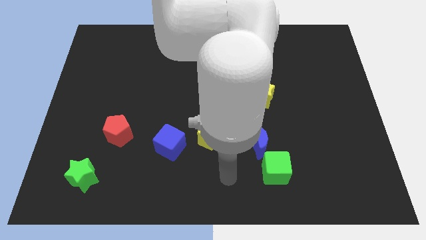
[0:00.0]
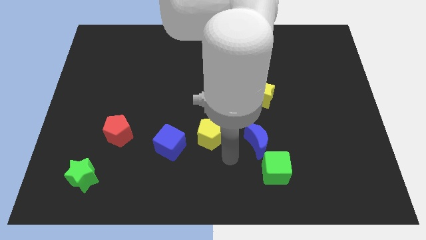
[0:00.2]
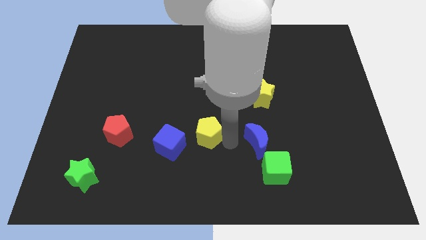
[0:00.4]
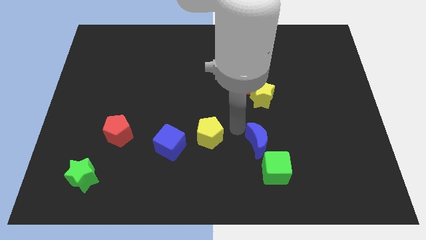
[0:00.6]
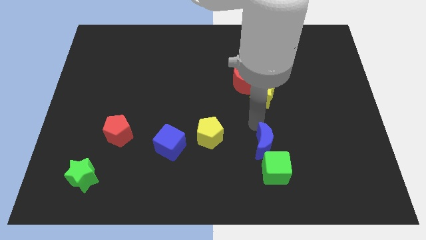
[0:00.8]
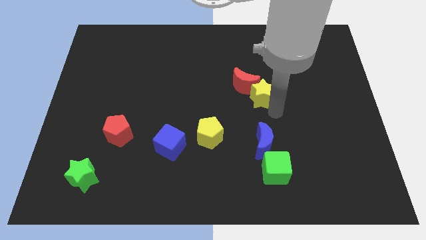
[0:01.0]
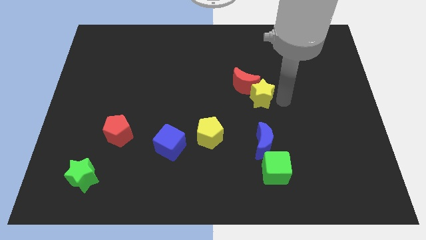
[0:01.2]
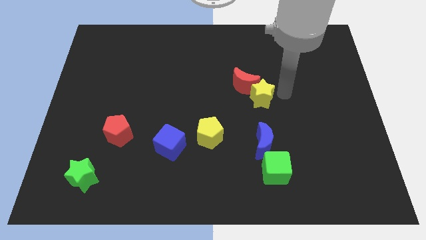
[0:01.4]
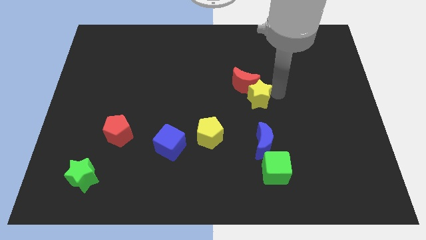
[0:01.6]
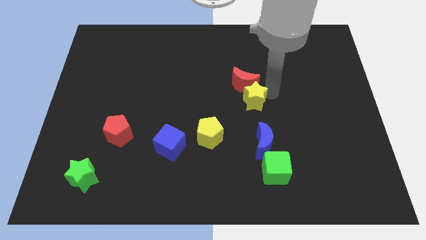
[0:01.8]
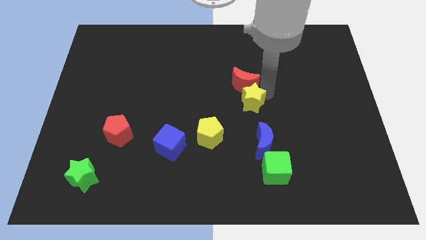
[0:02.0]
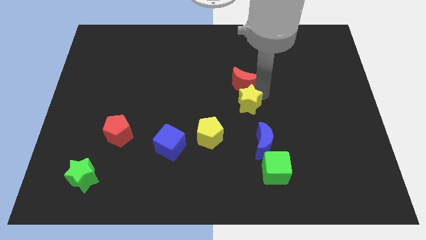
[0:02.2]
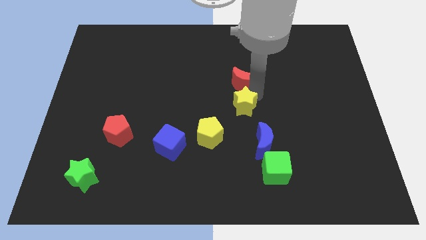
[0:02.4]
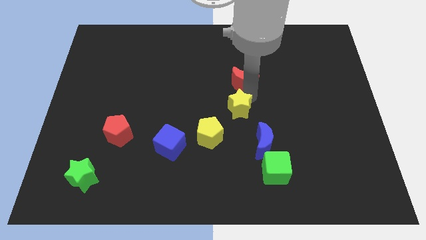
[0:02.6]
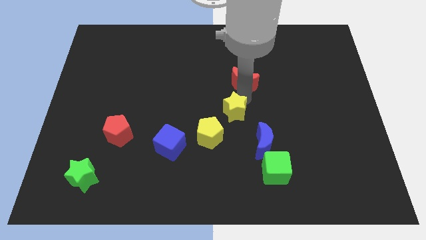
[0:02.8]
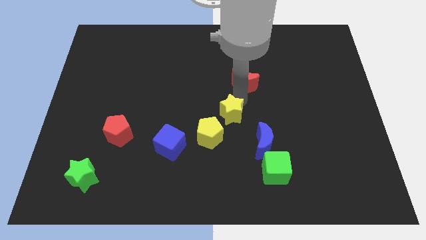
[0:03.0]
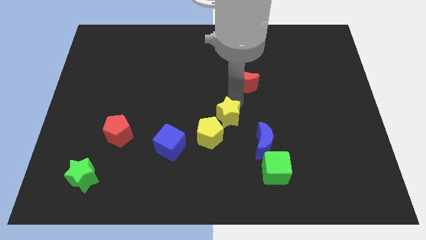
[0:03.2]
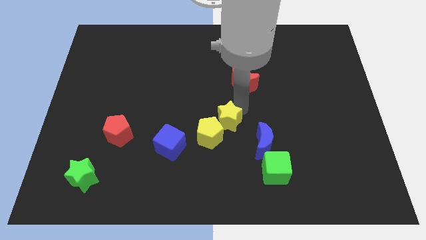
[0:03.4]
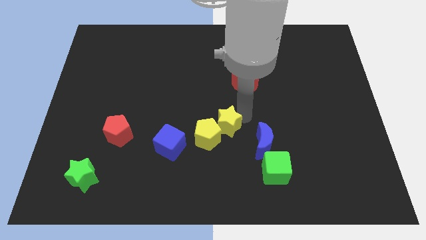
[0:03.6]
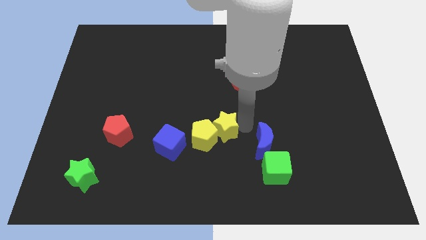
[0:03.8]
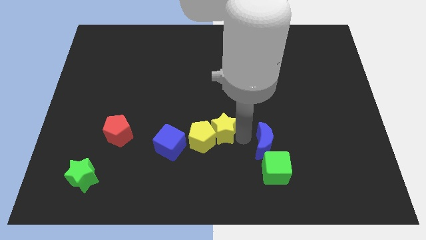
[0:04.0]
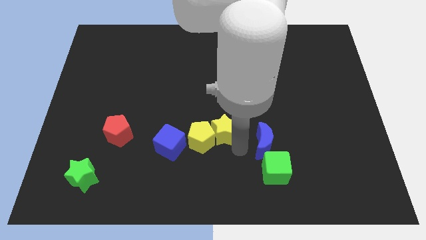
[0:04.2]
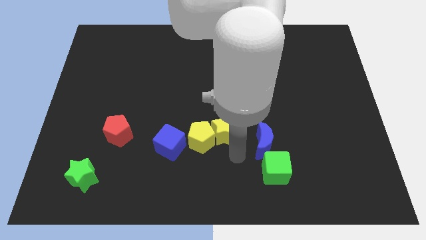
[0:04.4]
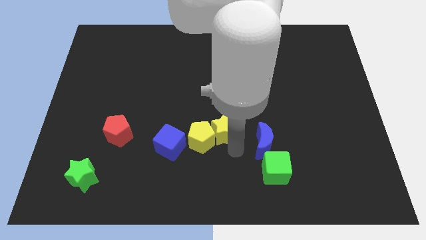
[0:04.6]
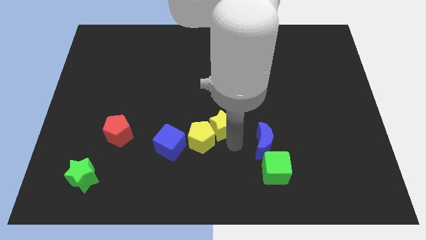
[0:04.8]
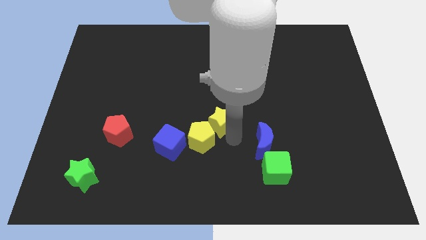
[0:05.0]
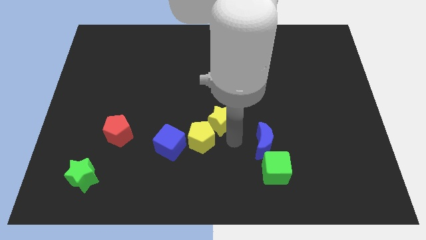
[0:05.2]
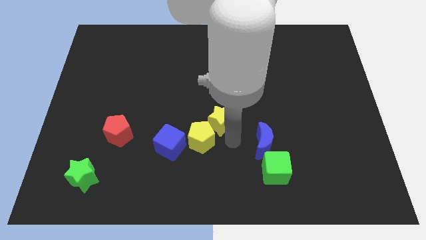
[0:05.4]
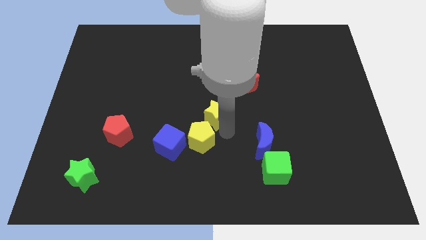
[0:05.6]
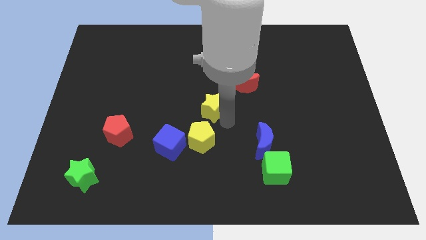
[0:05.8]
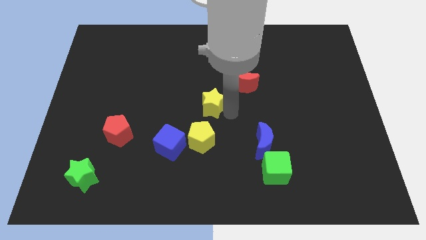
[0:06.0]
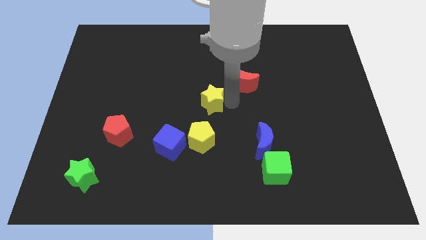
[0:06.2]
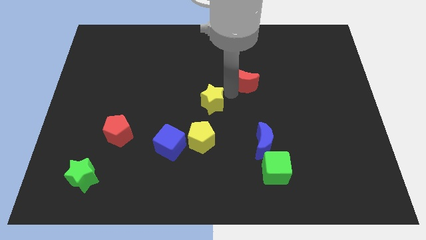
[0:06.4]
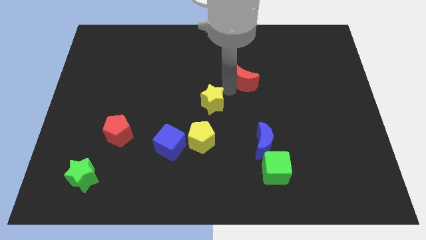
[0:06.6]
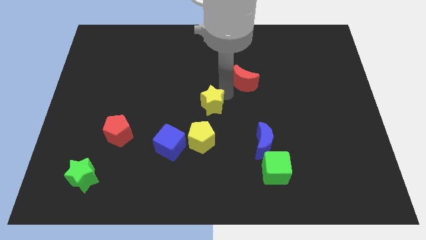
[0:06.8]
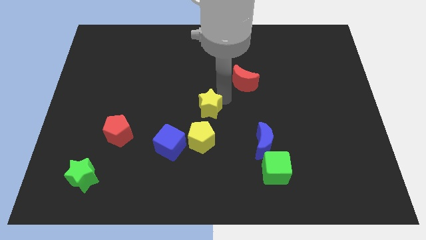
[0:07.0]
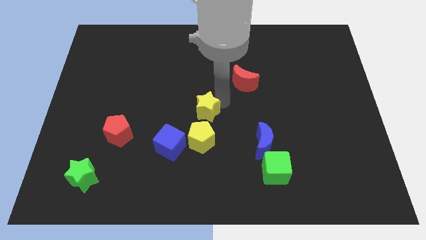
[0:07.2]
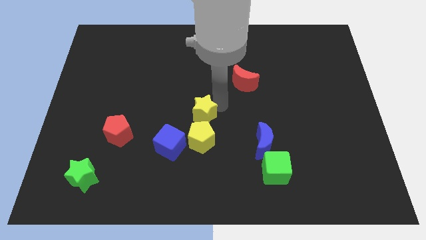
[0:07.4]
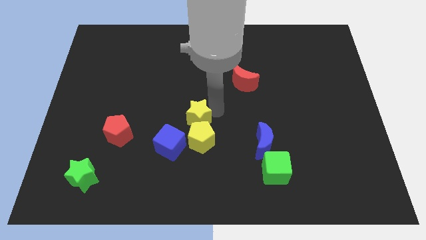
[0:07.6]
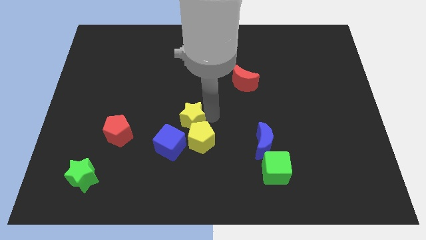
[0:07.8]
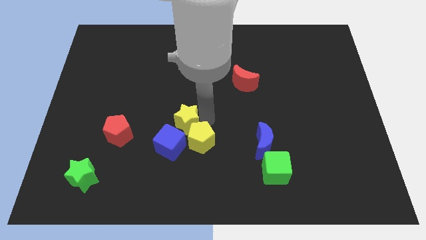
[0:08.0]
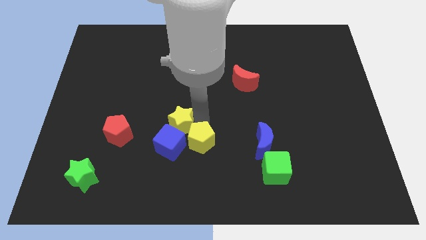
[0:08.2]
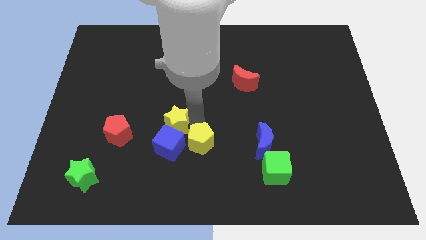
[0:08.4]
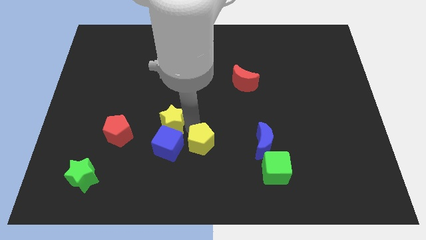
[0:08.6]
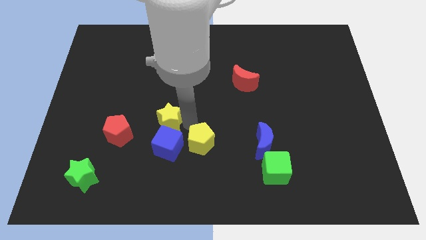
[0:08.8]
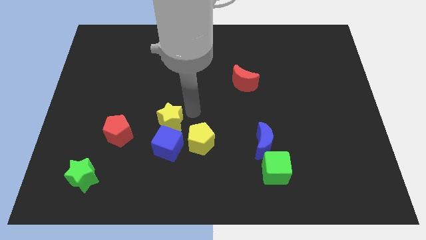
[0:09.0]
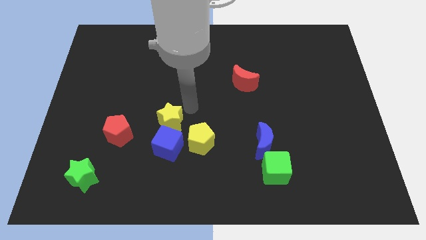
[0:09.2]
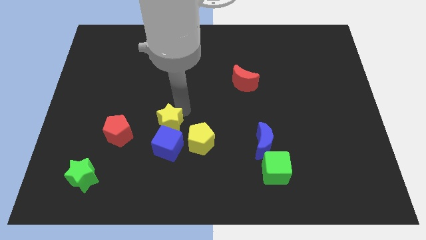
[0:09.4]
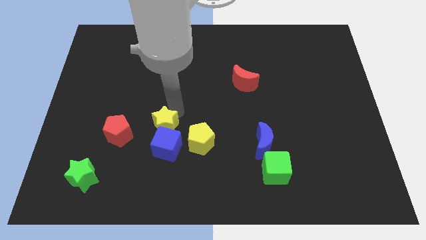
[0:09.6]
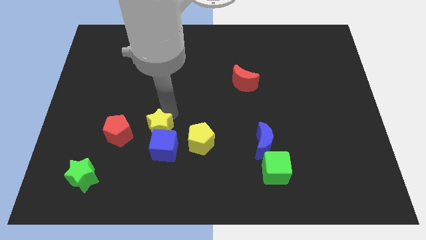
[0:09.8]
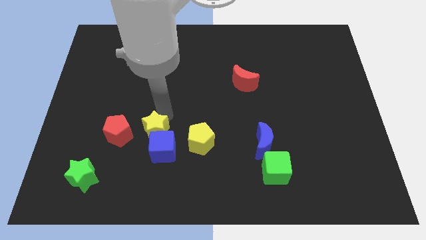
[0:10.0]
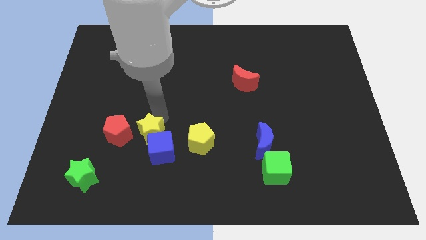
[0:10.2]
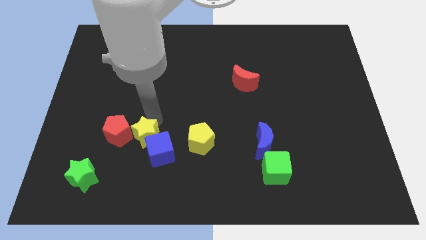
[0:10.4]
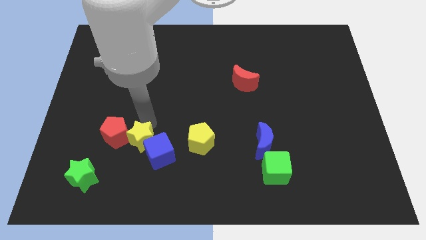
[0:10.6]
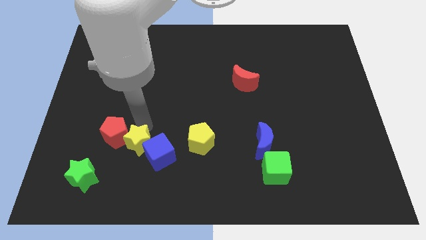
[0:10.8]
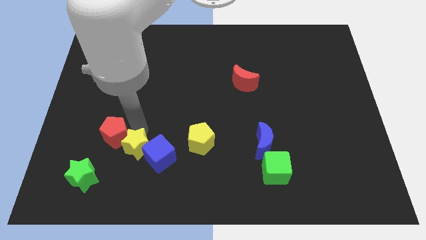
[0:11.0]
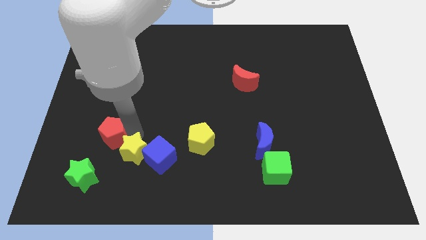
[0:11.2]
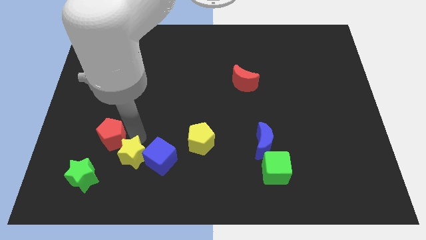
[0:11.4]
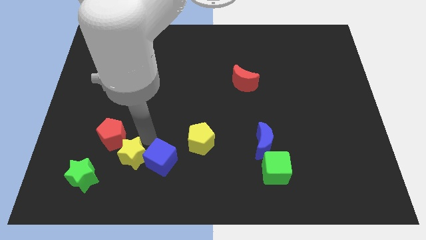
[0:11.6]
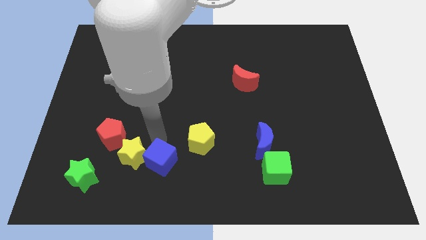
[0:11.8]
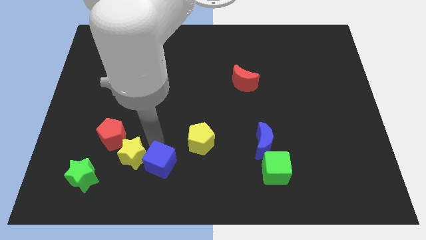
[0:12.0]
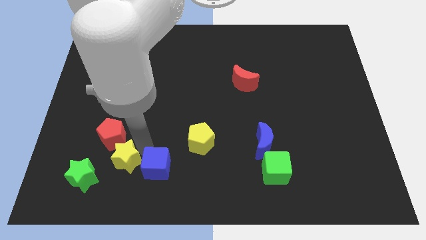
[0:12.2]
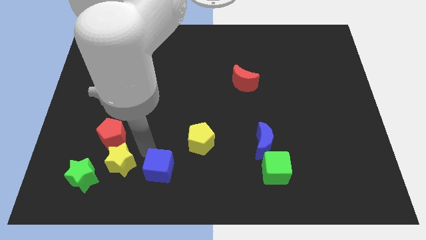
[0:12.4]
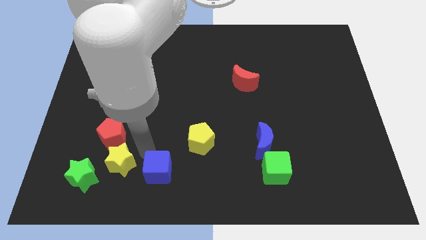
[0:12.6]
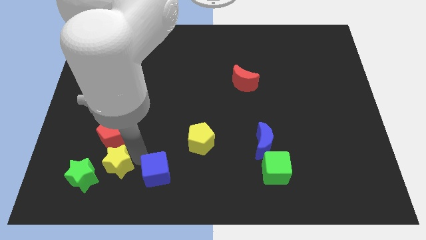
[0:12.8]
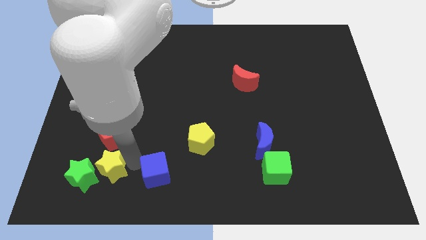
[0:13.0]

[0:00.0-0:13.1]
put the yellow star close to the green star

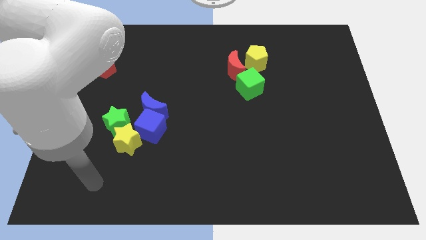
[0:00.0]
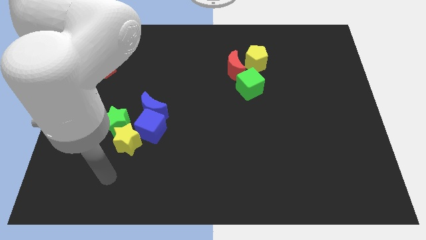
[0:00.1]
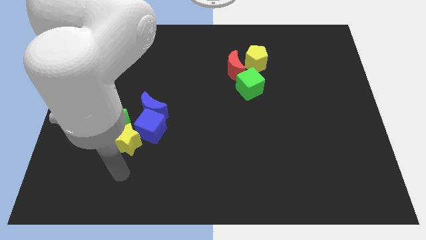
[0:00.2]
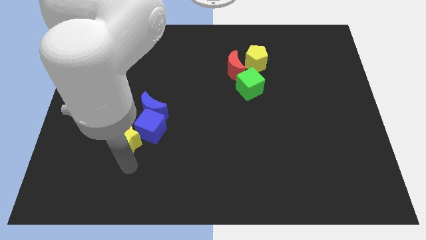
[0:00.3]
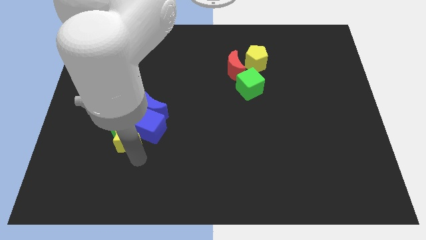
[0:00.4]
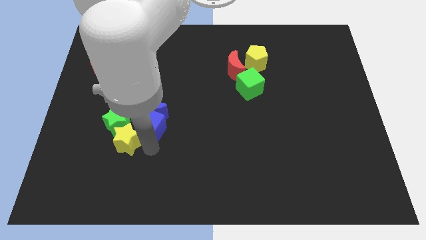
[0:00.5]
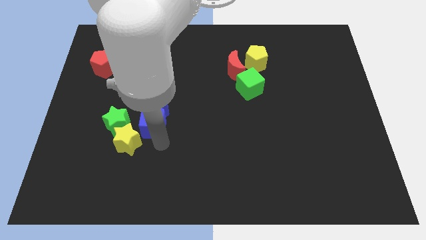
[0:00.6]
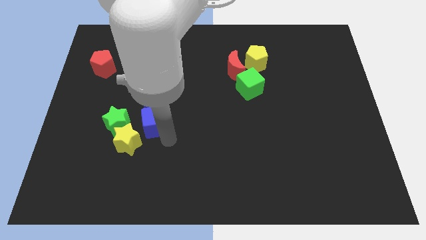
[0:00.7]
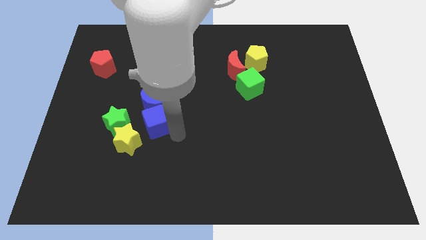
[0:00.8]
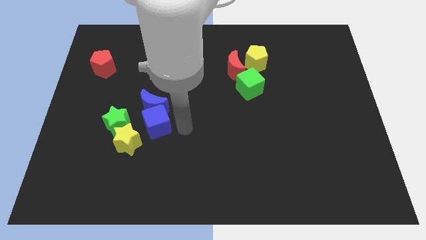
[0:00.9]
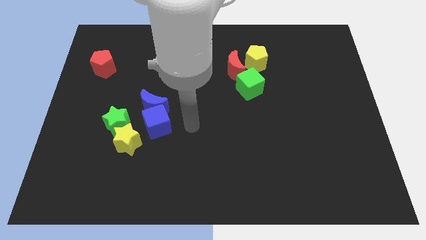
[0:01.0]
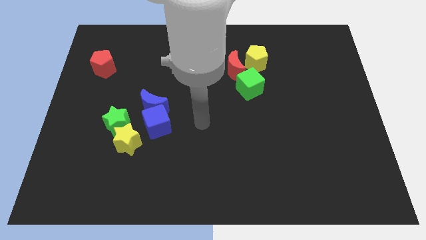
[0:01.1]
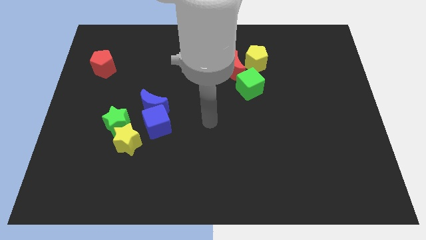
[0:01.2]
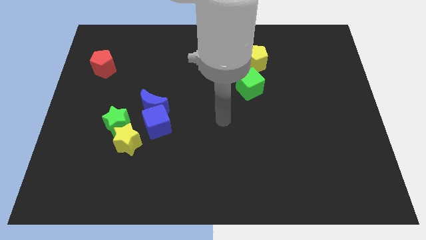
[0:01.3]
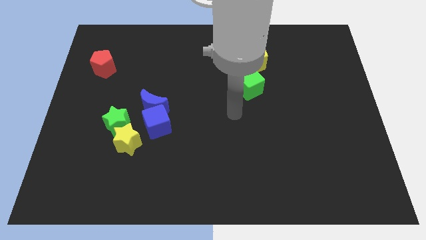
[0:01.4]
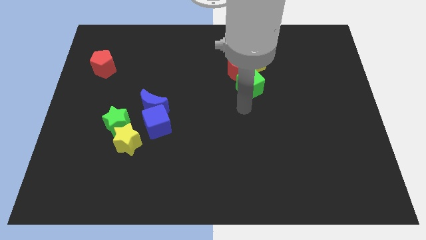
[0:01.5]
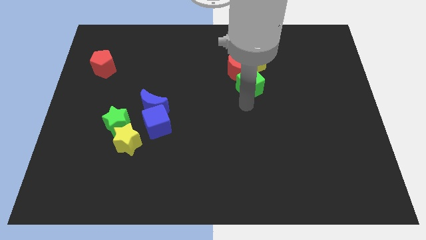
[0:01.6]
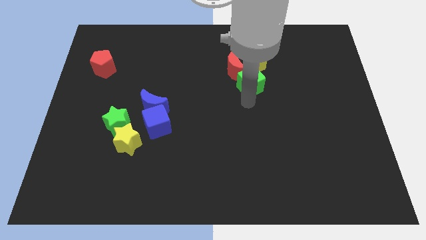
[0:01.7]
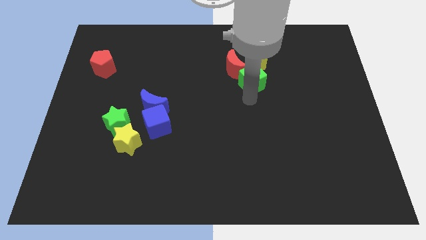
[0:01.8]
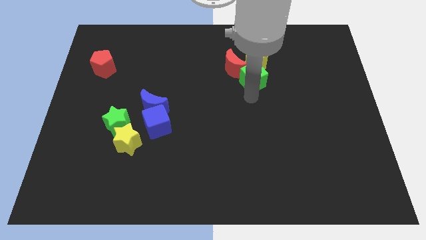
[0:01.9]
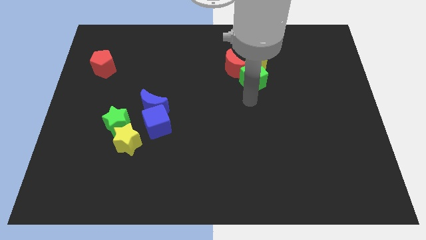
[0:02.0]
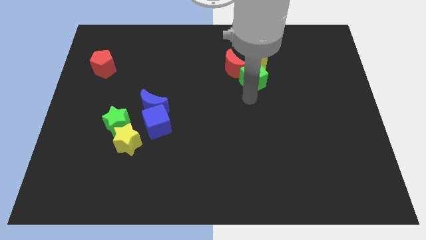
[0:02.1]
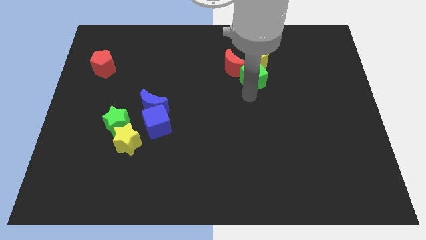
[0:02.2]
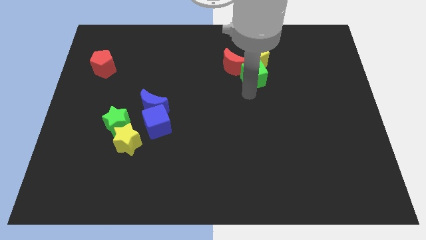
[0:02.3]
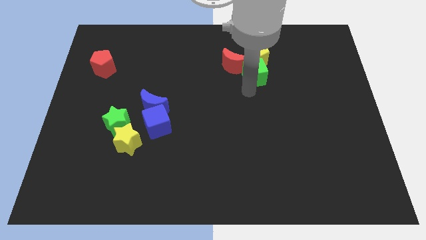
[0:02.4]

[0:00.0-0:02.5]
put the green cube close to the yellow pentagon
